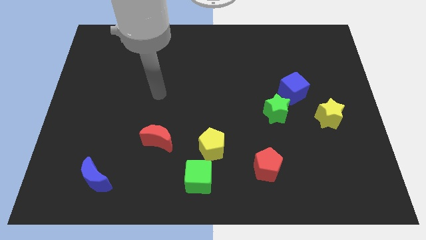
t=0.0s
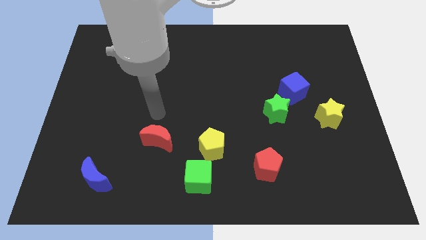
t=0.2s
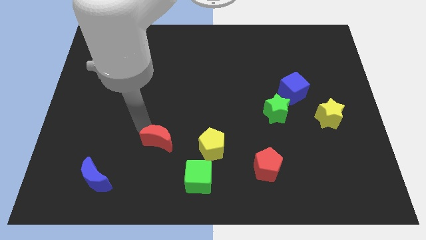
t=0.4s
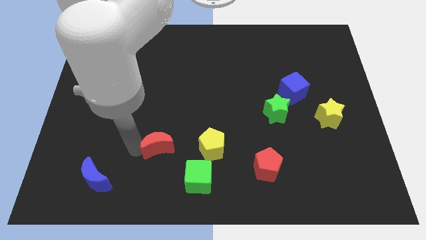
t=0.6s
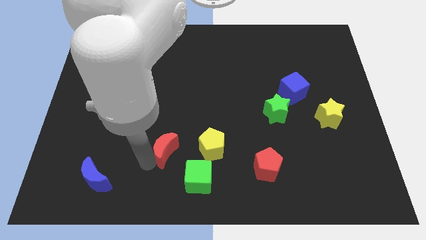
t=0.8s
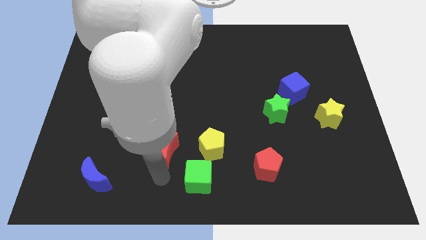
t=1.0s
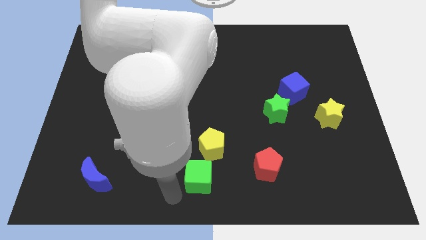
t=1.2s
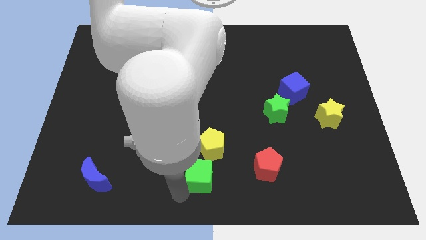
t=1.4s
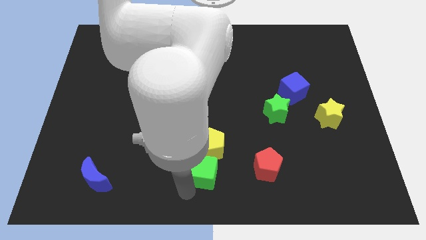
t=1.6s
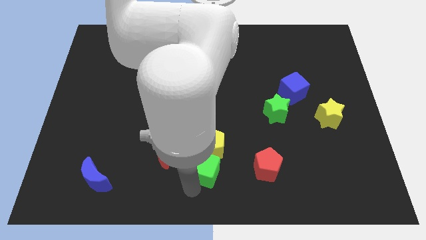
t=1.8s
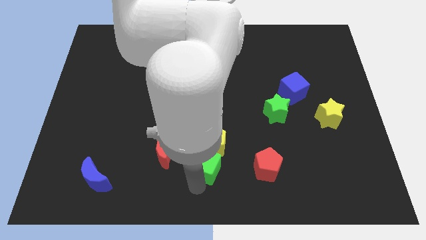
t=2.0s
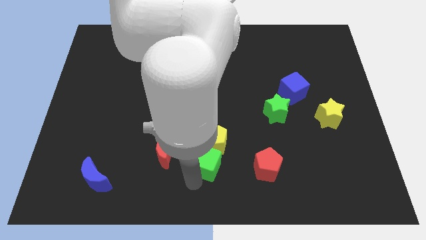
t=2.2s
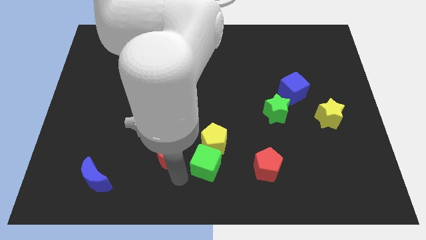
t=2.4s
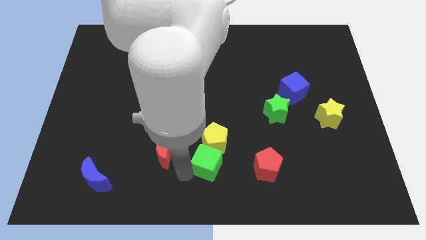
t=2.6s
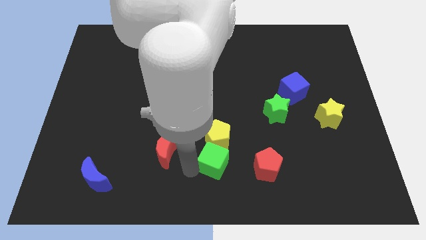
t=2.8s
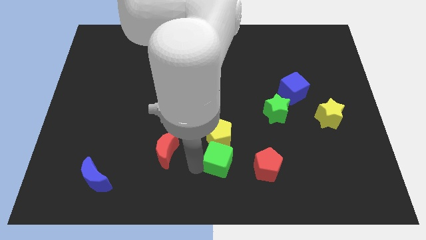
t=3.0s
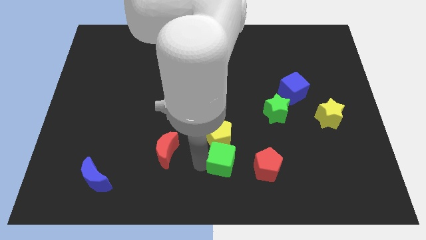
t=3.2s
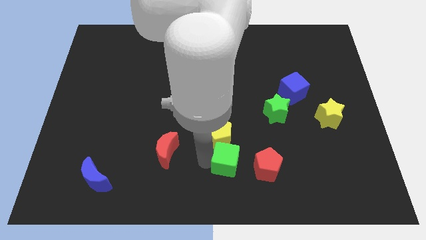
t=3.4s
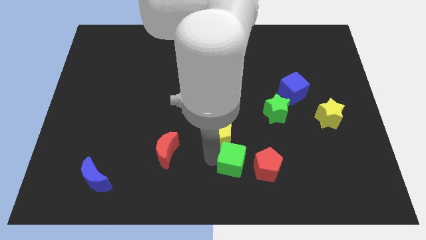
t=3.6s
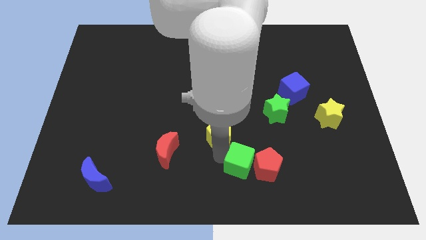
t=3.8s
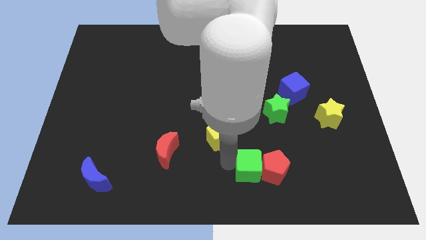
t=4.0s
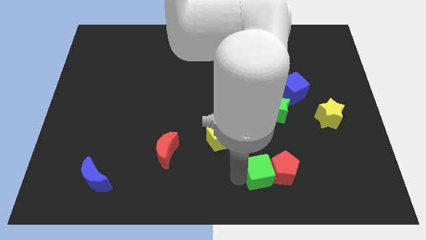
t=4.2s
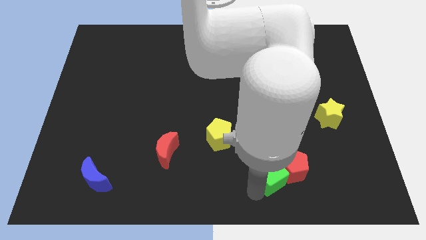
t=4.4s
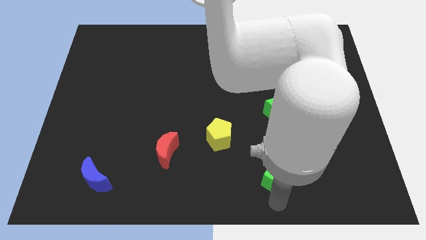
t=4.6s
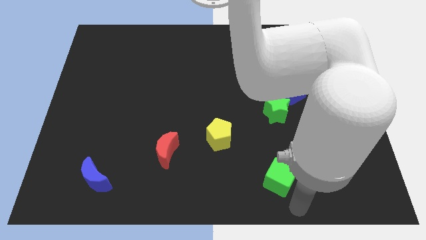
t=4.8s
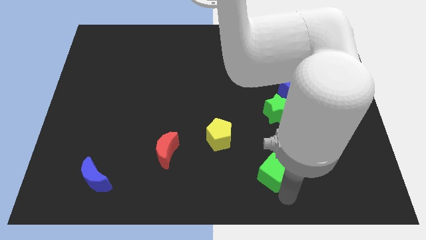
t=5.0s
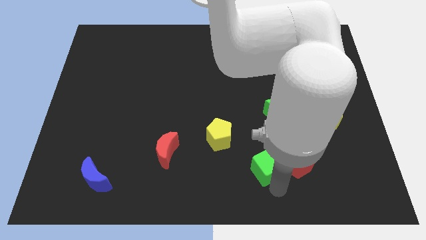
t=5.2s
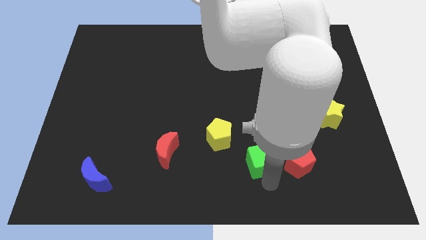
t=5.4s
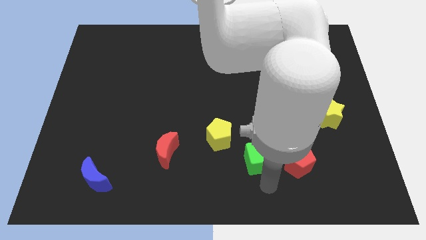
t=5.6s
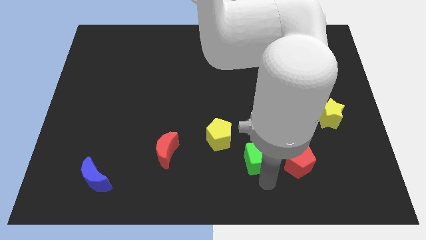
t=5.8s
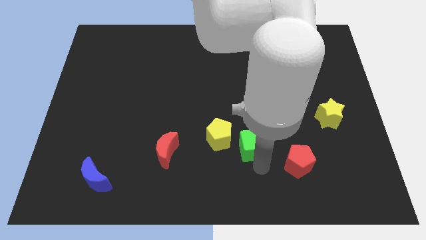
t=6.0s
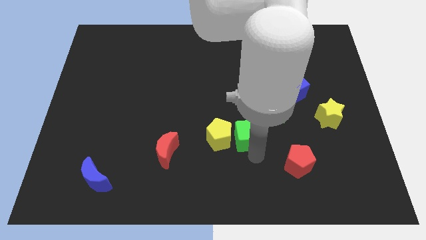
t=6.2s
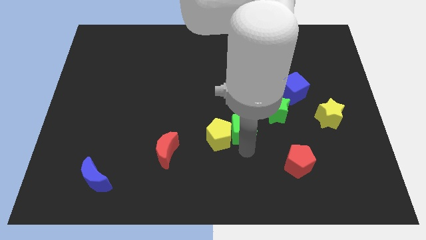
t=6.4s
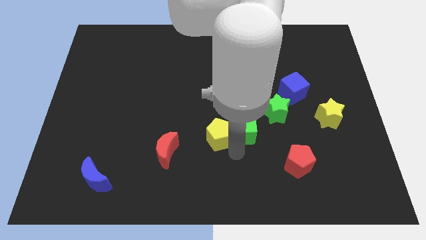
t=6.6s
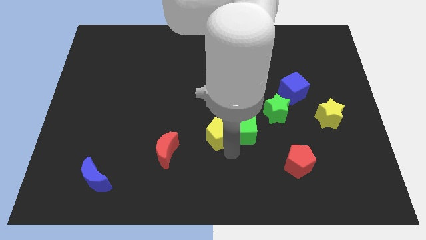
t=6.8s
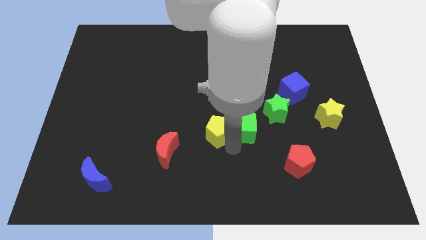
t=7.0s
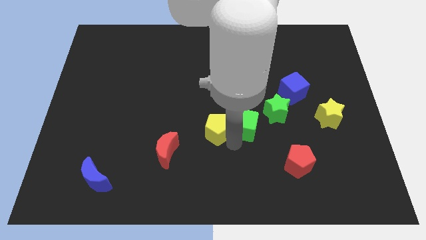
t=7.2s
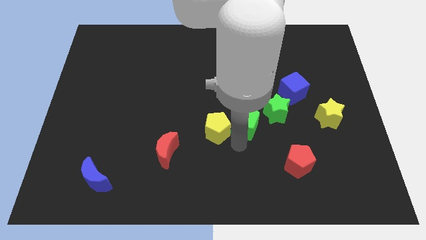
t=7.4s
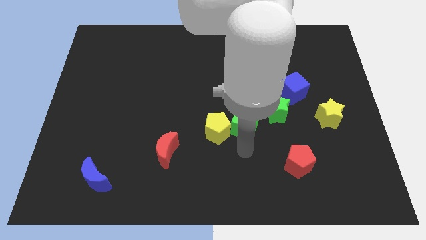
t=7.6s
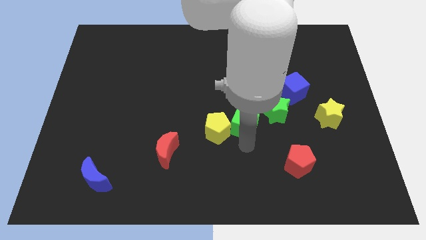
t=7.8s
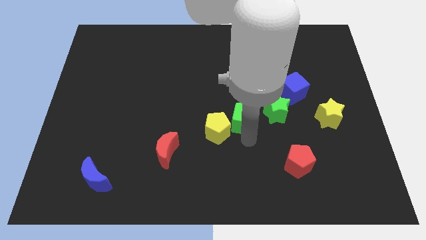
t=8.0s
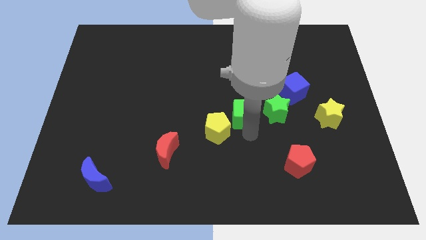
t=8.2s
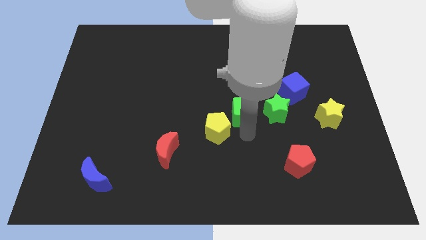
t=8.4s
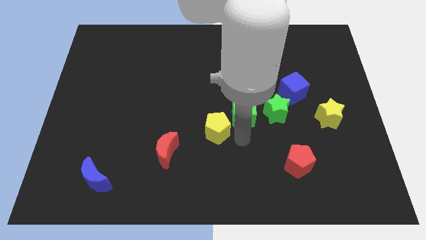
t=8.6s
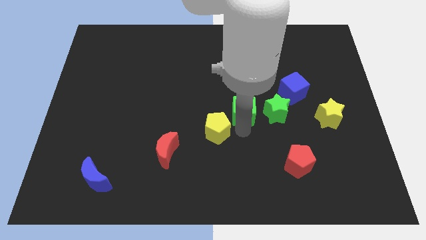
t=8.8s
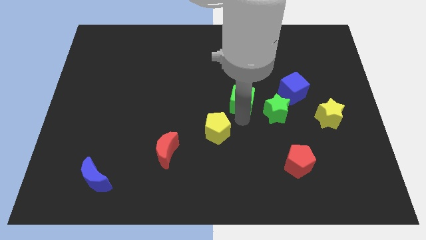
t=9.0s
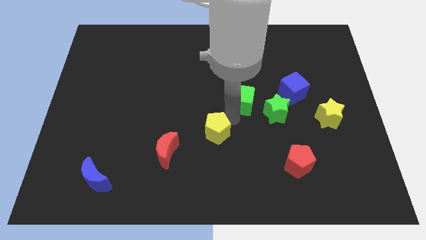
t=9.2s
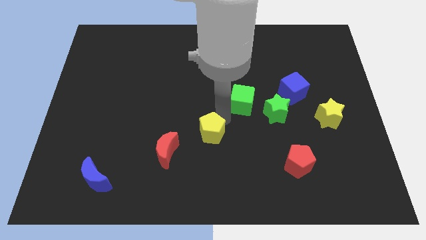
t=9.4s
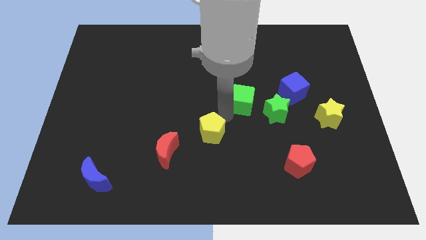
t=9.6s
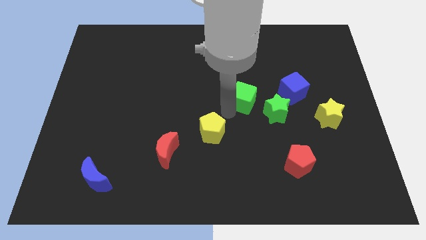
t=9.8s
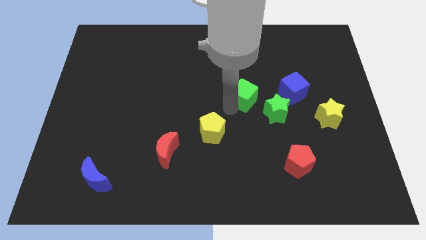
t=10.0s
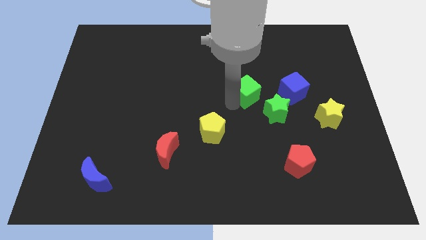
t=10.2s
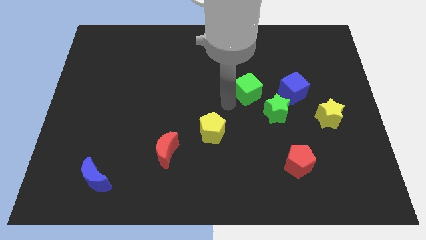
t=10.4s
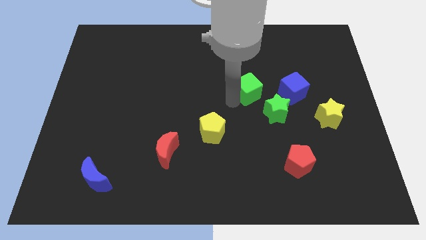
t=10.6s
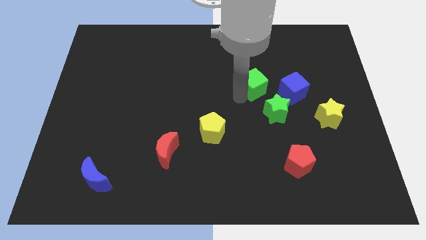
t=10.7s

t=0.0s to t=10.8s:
push the green cube above the green star
